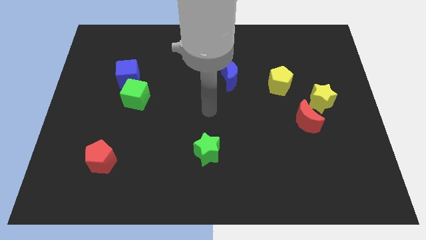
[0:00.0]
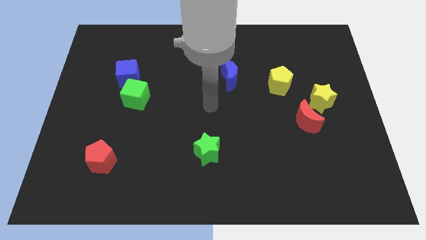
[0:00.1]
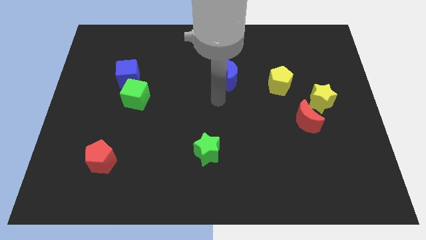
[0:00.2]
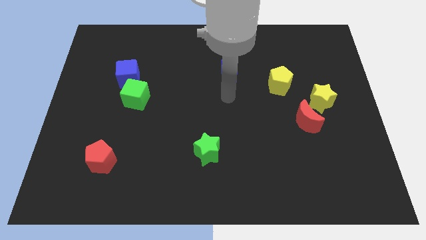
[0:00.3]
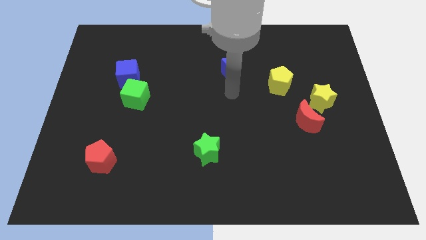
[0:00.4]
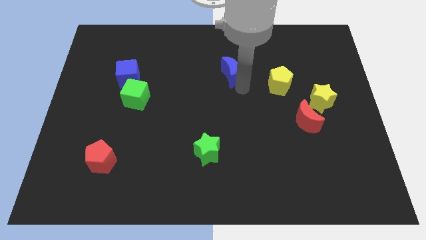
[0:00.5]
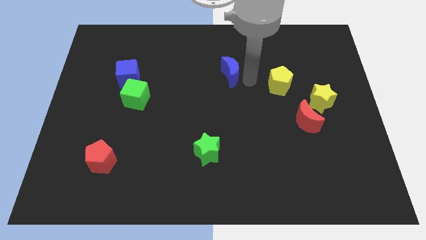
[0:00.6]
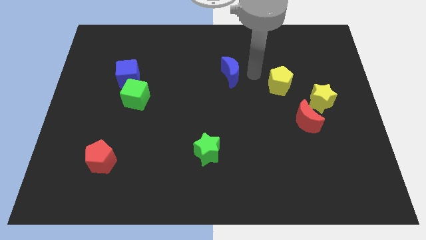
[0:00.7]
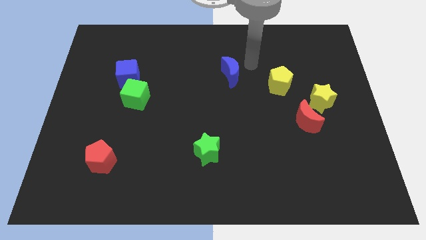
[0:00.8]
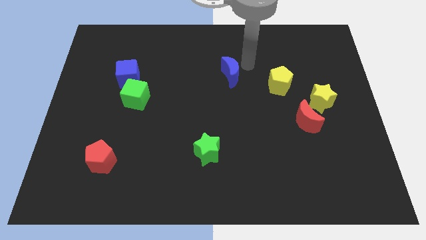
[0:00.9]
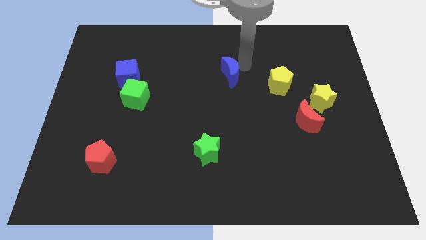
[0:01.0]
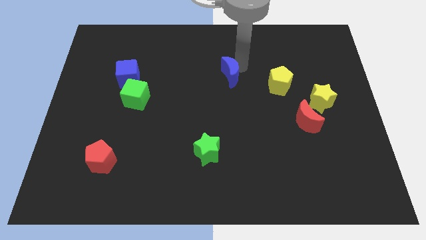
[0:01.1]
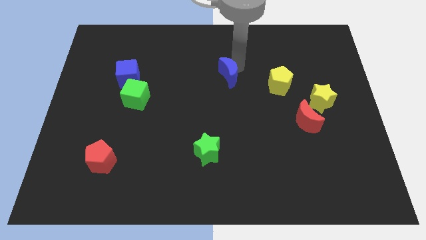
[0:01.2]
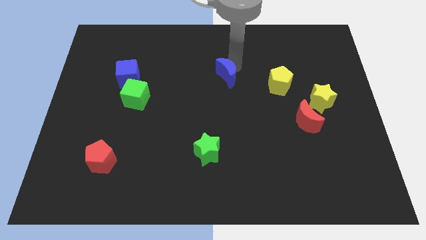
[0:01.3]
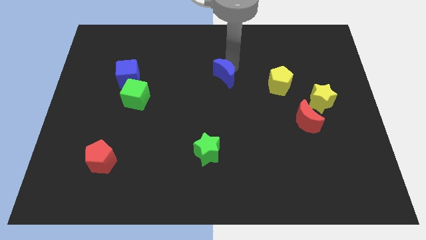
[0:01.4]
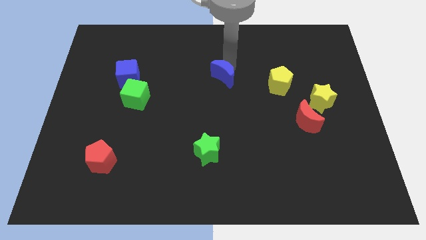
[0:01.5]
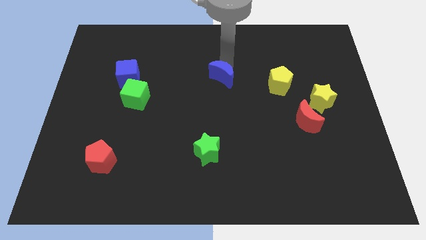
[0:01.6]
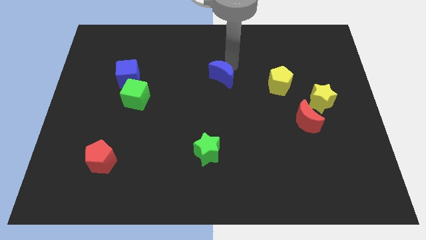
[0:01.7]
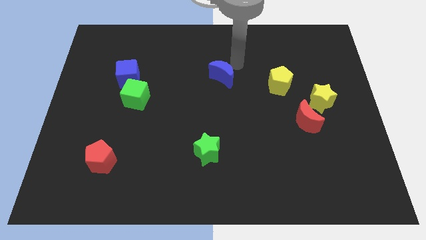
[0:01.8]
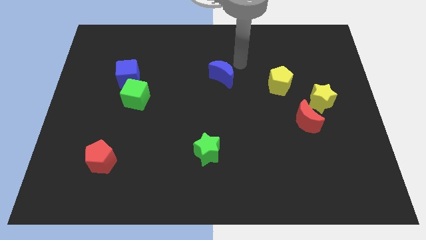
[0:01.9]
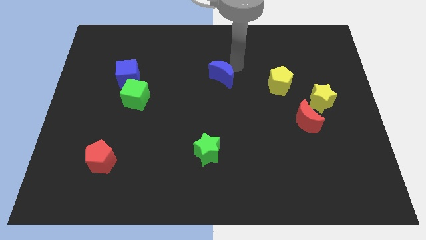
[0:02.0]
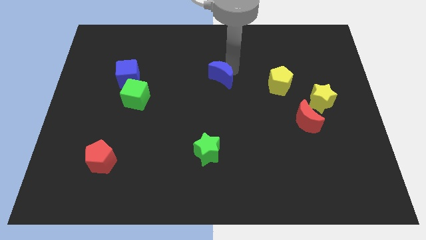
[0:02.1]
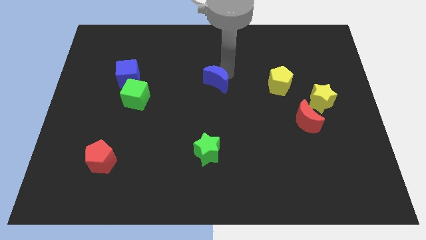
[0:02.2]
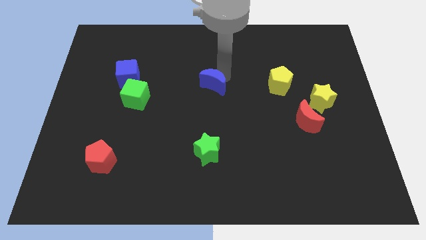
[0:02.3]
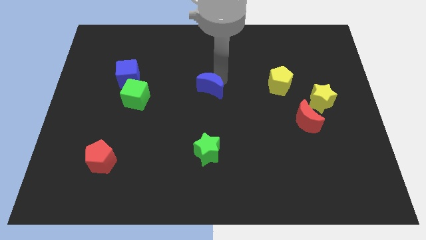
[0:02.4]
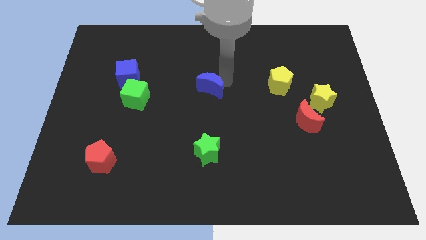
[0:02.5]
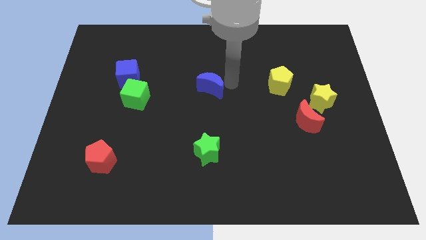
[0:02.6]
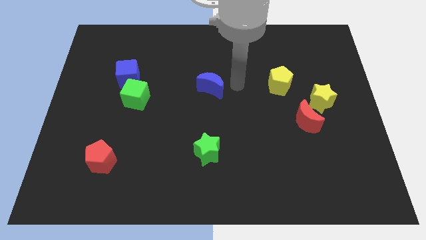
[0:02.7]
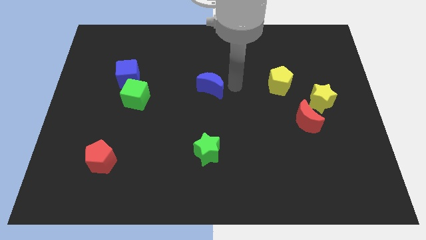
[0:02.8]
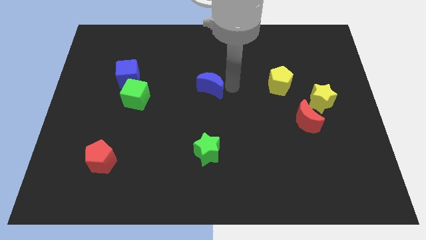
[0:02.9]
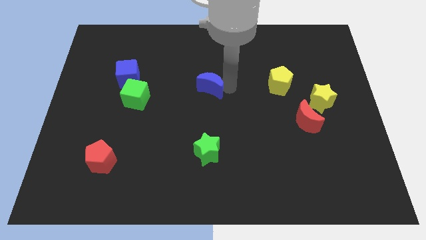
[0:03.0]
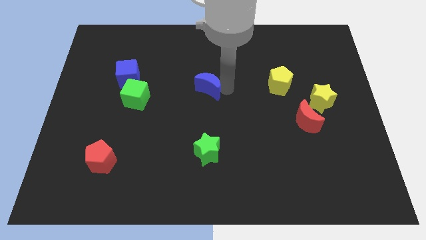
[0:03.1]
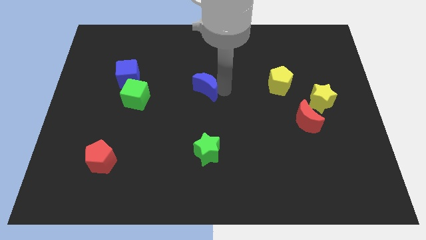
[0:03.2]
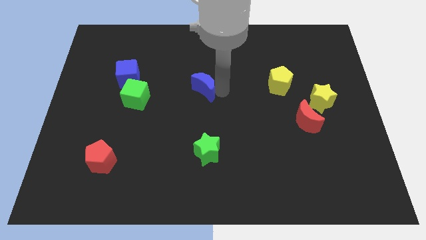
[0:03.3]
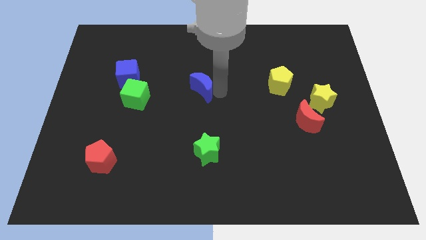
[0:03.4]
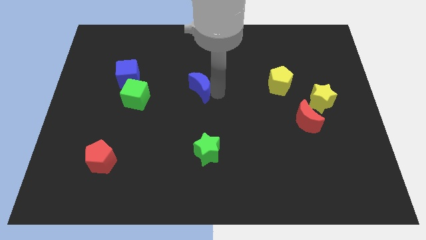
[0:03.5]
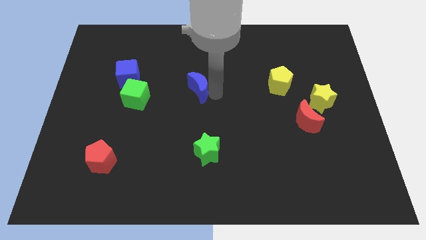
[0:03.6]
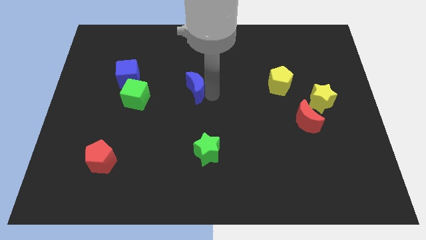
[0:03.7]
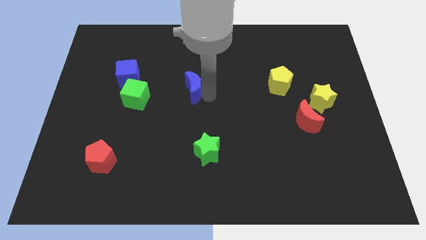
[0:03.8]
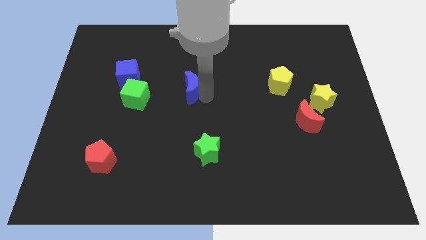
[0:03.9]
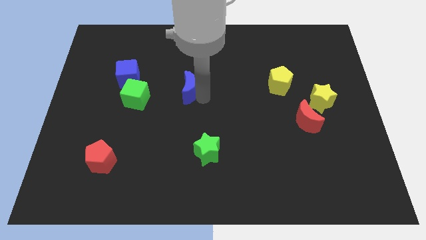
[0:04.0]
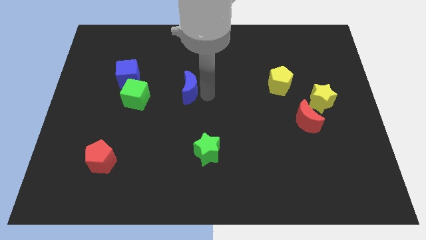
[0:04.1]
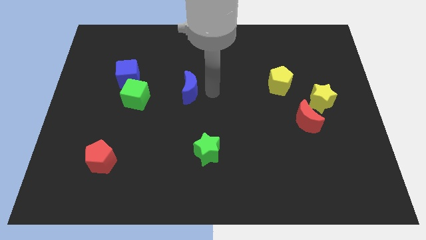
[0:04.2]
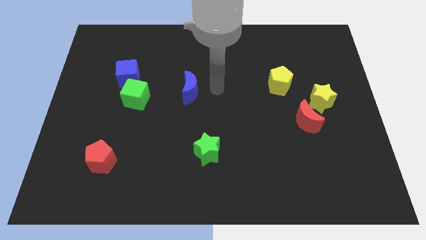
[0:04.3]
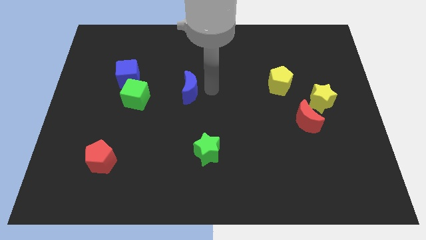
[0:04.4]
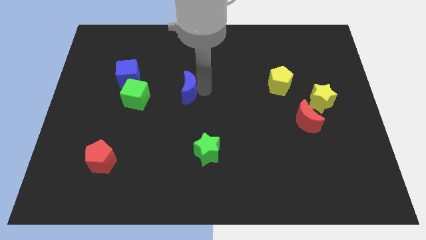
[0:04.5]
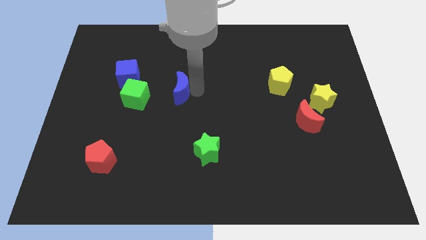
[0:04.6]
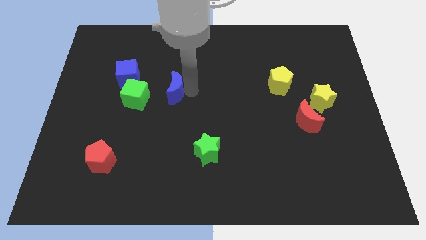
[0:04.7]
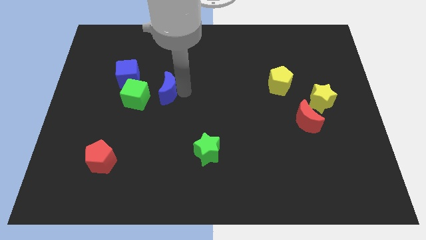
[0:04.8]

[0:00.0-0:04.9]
slide the blue moon to the bottom right of the blue cube

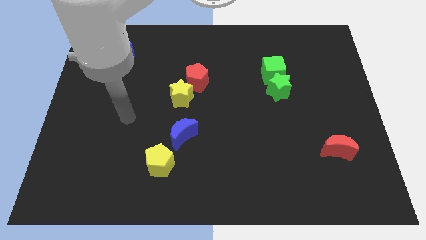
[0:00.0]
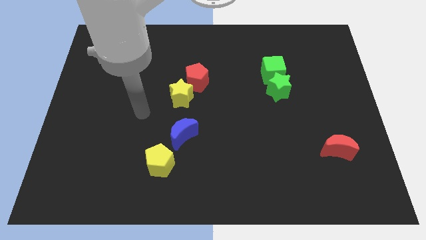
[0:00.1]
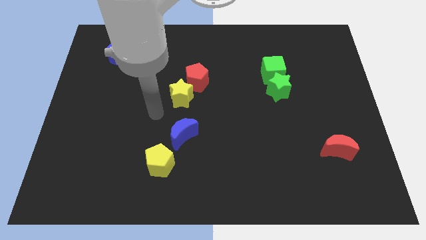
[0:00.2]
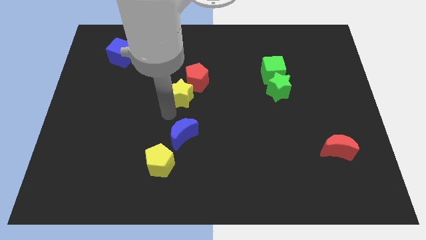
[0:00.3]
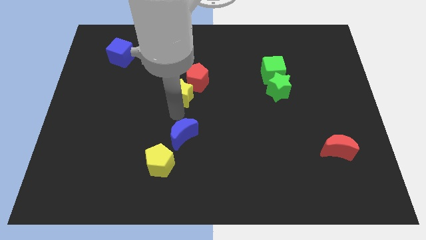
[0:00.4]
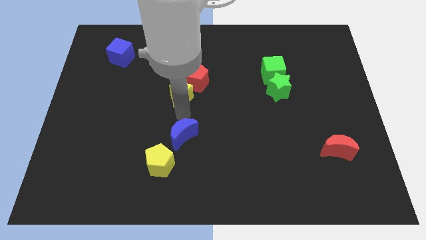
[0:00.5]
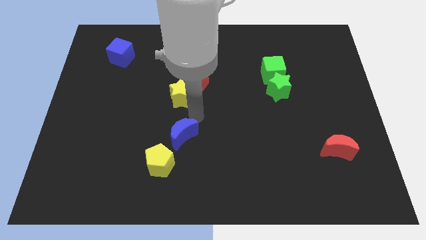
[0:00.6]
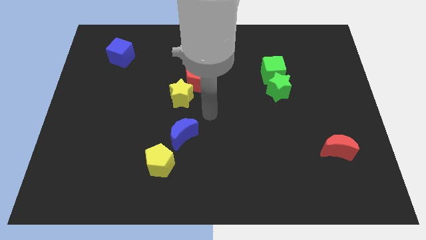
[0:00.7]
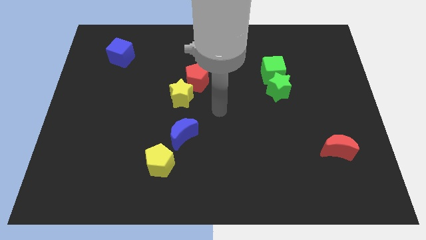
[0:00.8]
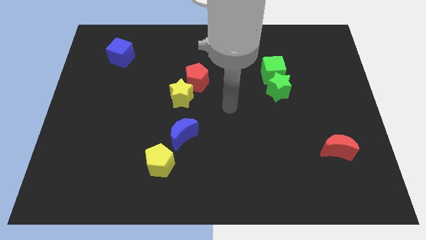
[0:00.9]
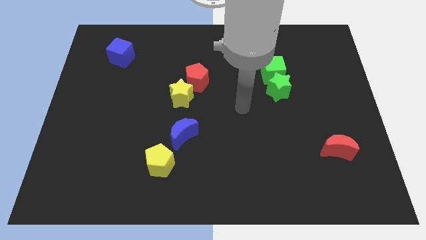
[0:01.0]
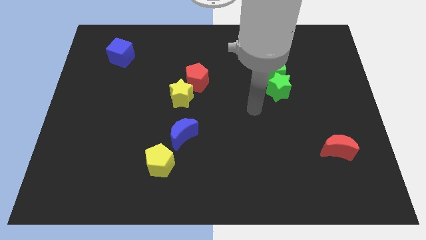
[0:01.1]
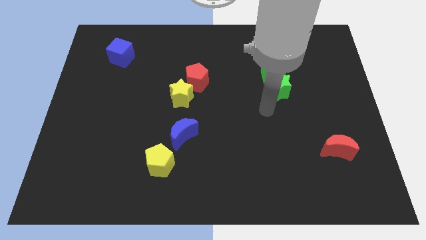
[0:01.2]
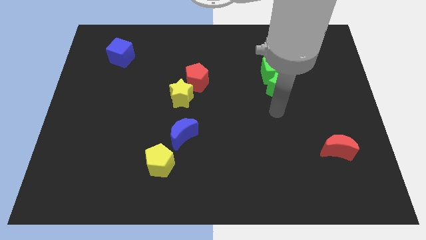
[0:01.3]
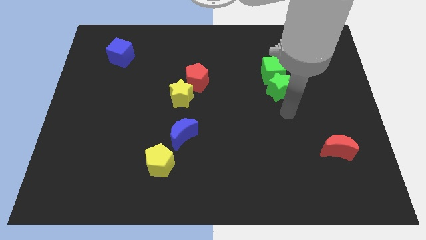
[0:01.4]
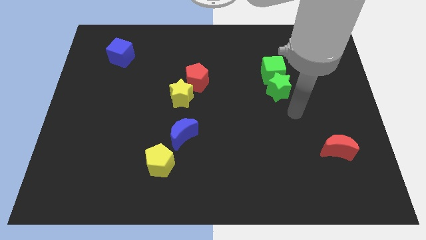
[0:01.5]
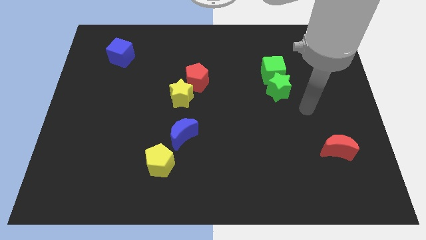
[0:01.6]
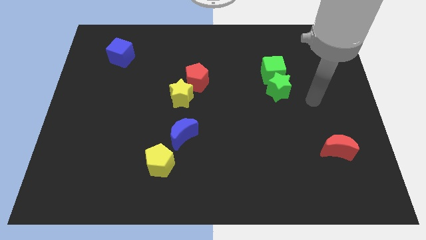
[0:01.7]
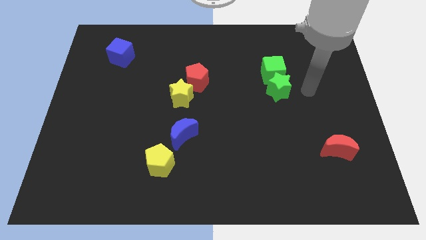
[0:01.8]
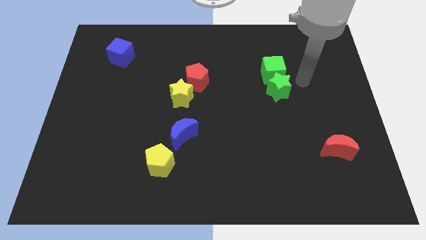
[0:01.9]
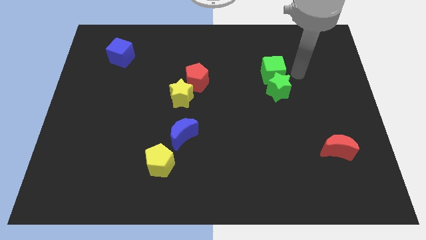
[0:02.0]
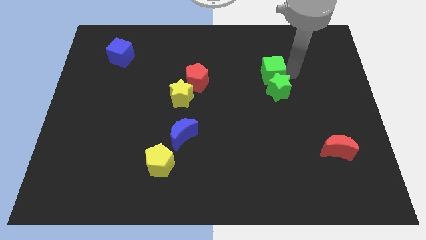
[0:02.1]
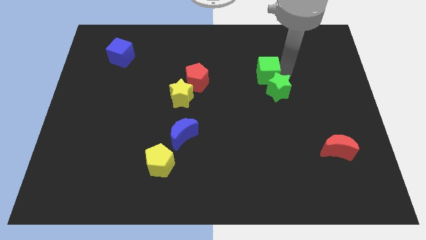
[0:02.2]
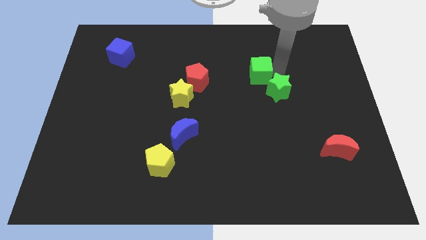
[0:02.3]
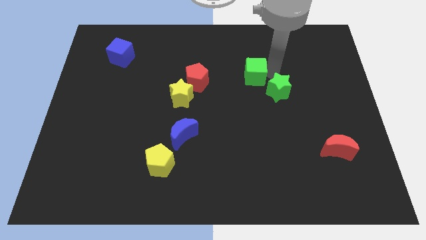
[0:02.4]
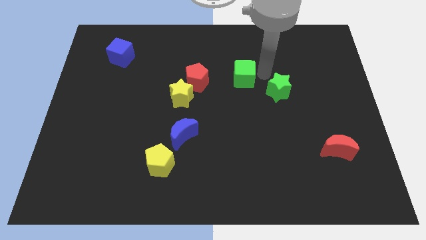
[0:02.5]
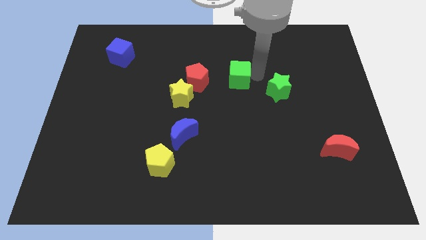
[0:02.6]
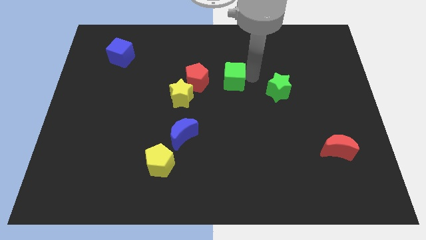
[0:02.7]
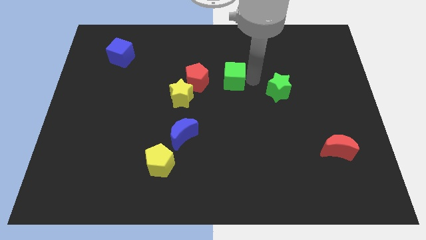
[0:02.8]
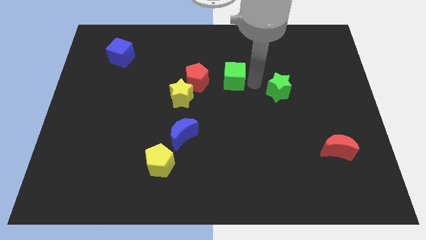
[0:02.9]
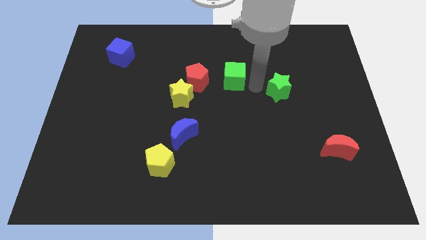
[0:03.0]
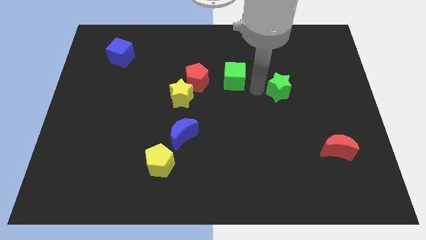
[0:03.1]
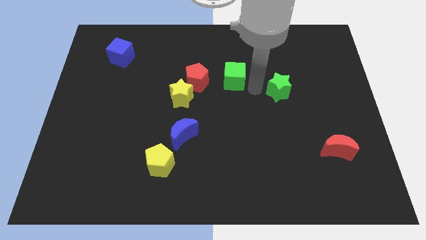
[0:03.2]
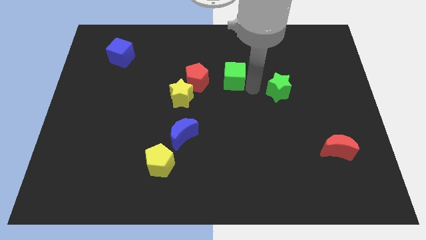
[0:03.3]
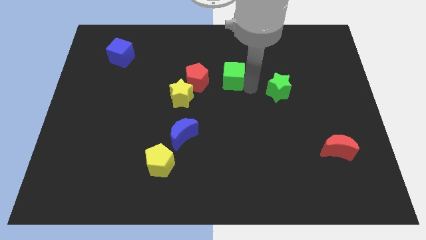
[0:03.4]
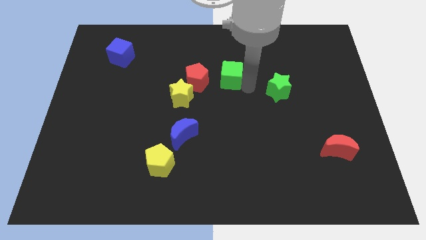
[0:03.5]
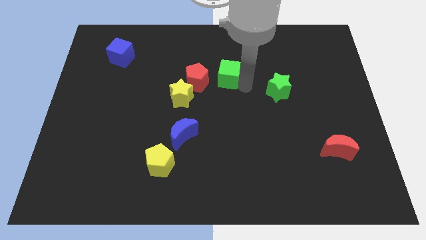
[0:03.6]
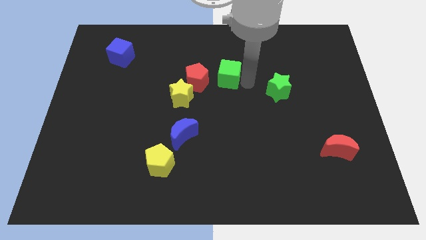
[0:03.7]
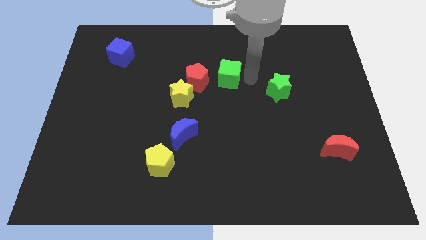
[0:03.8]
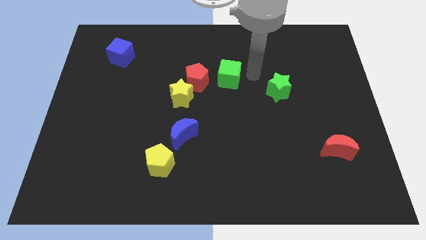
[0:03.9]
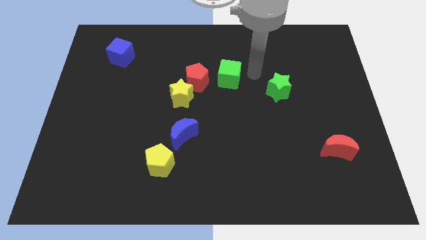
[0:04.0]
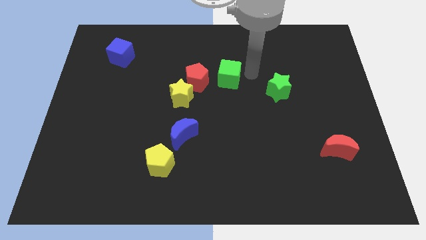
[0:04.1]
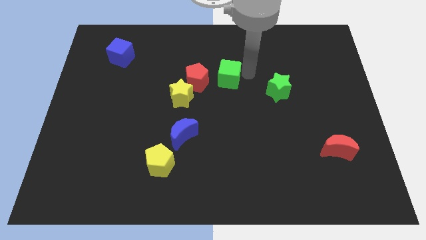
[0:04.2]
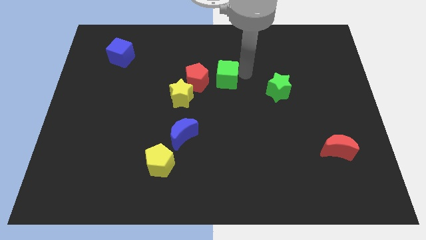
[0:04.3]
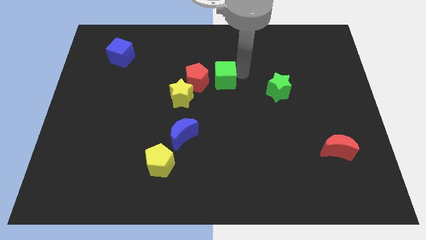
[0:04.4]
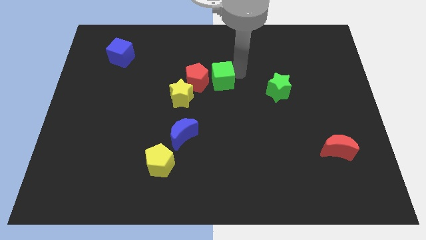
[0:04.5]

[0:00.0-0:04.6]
slide the green cube diagonally up and to the right of the yellow star
